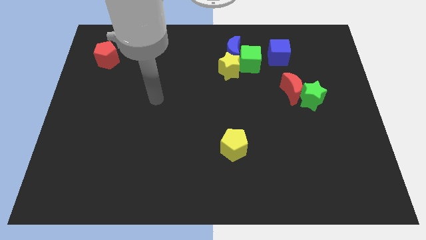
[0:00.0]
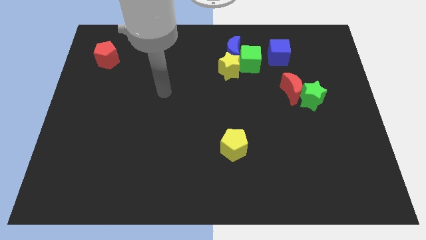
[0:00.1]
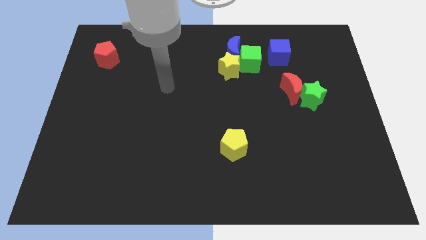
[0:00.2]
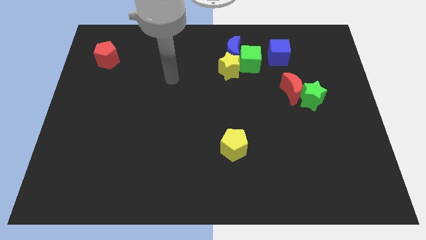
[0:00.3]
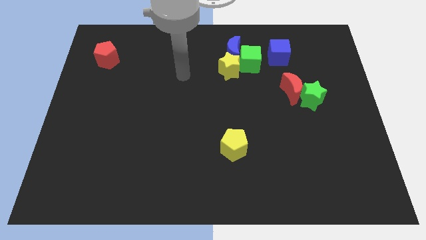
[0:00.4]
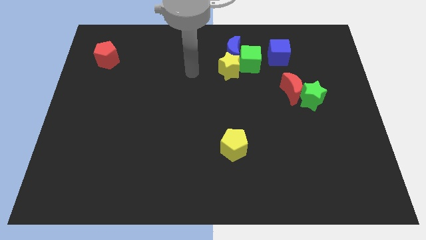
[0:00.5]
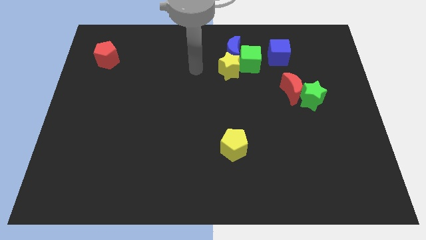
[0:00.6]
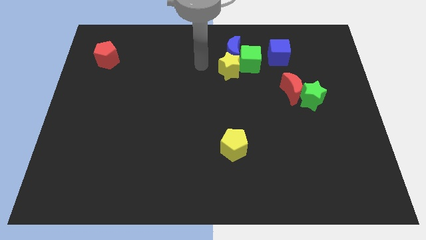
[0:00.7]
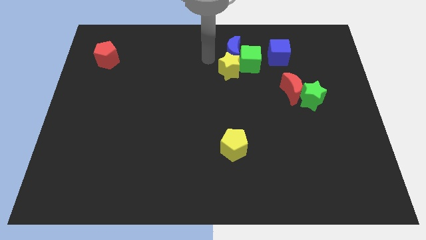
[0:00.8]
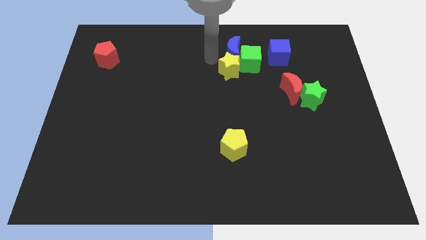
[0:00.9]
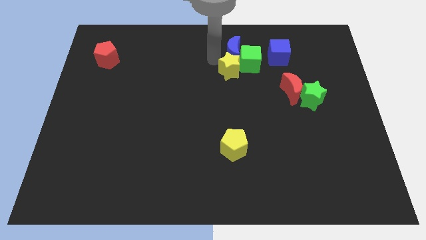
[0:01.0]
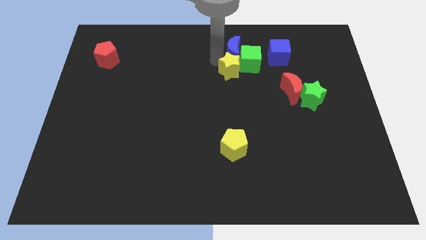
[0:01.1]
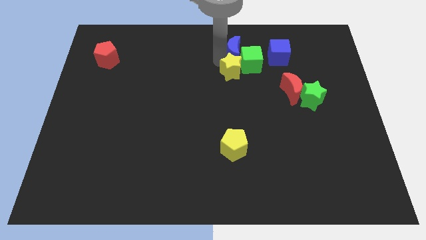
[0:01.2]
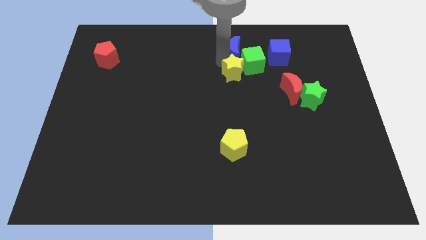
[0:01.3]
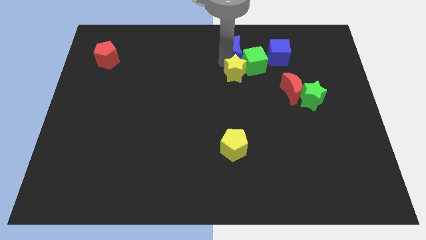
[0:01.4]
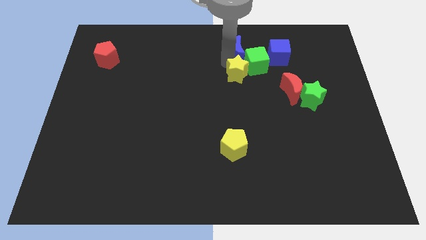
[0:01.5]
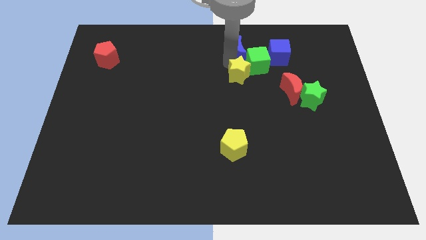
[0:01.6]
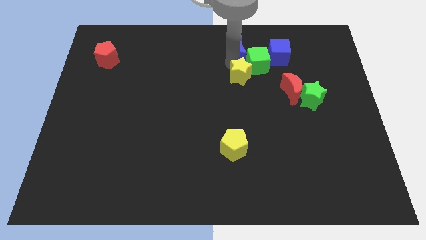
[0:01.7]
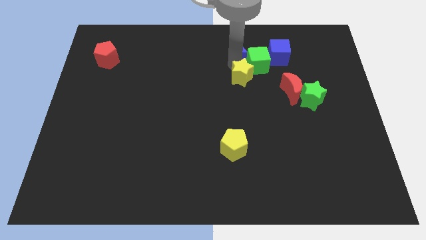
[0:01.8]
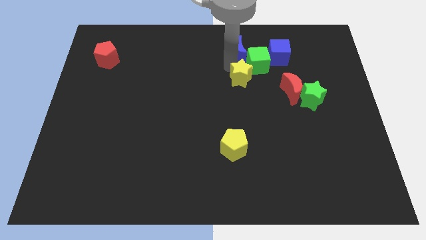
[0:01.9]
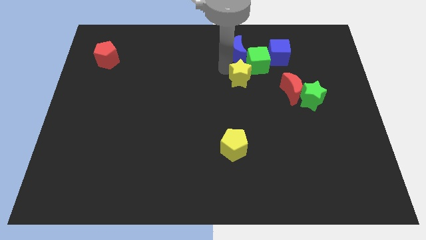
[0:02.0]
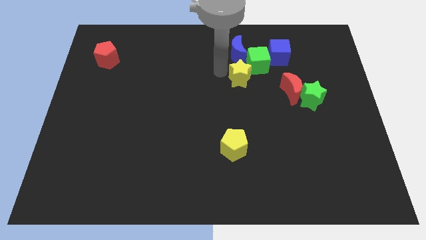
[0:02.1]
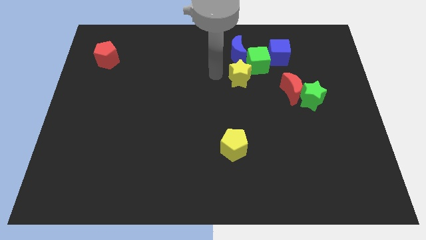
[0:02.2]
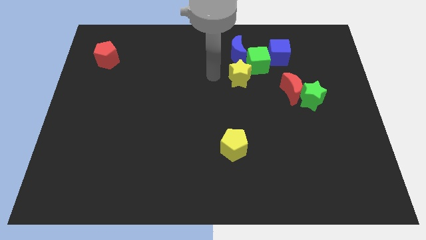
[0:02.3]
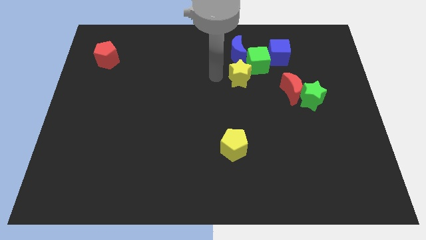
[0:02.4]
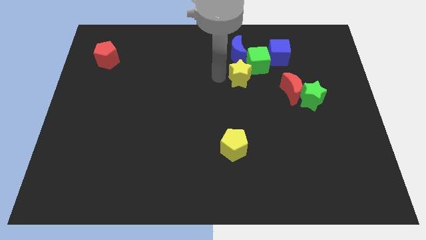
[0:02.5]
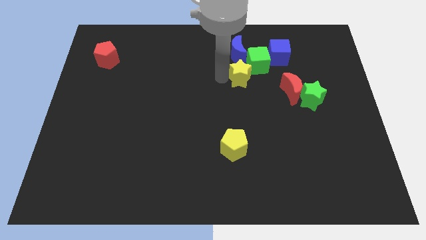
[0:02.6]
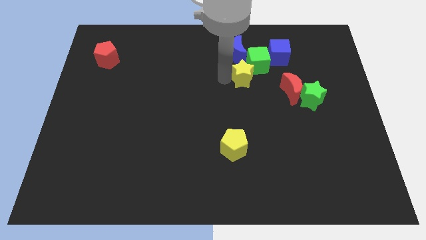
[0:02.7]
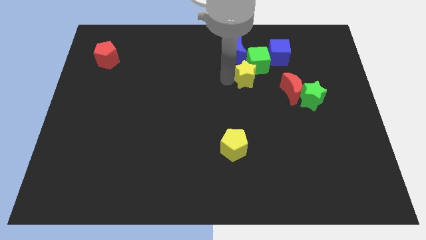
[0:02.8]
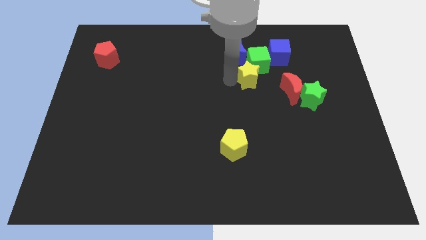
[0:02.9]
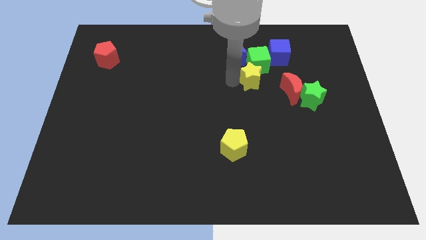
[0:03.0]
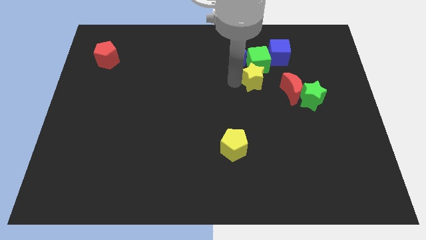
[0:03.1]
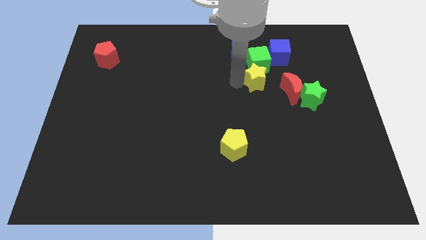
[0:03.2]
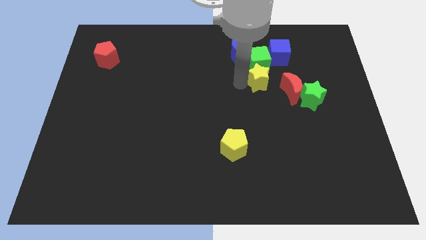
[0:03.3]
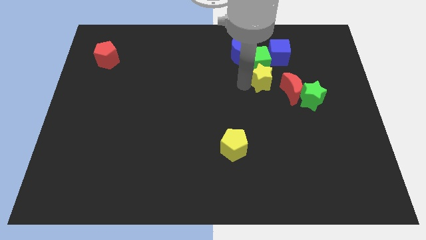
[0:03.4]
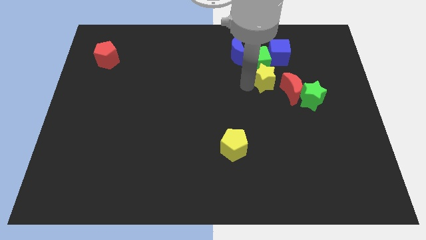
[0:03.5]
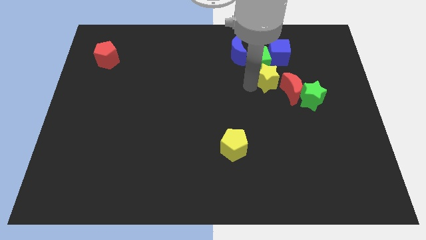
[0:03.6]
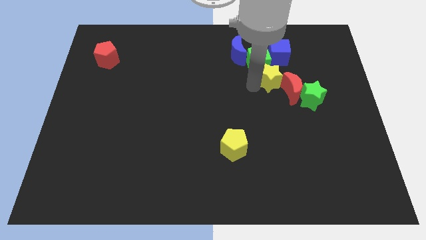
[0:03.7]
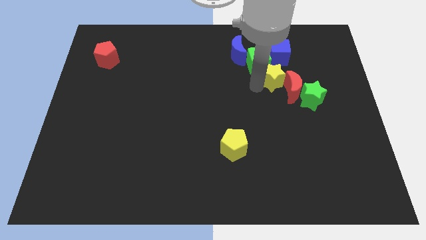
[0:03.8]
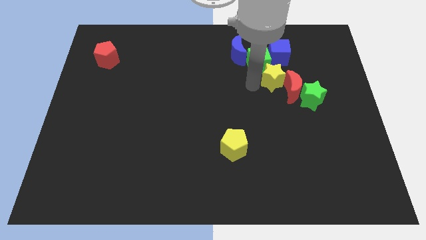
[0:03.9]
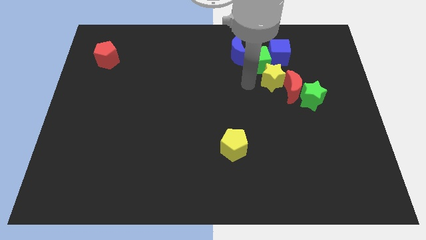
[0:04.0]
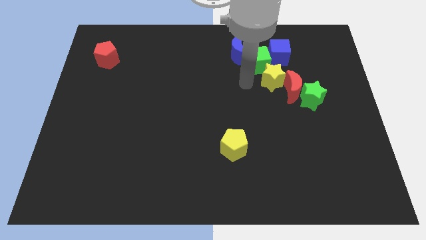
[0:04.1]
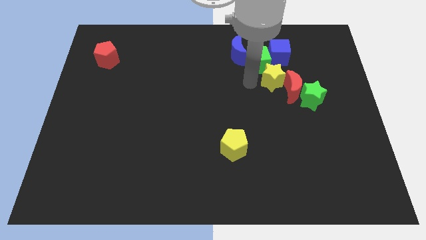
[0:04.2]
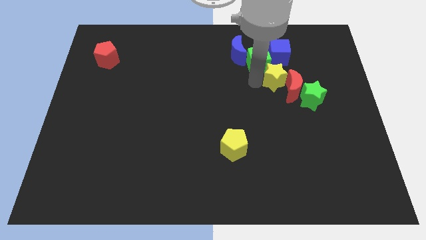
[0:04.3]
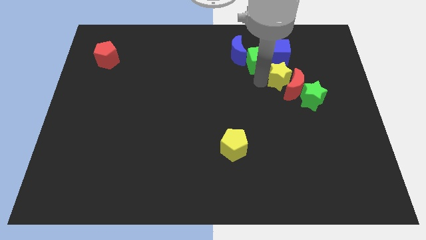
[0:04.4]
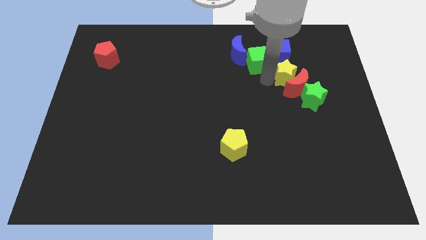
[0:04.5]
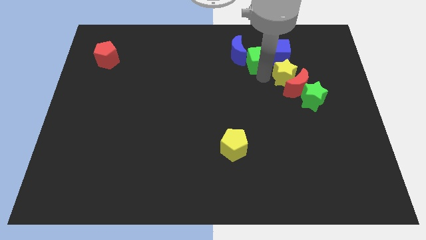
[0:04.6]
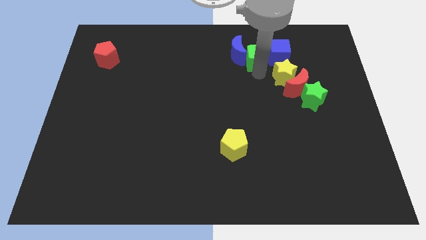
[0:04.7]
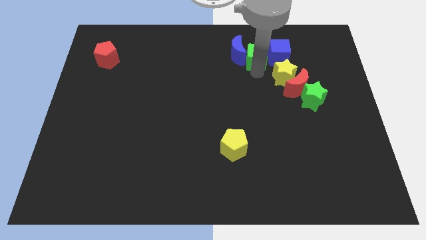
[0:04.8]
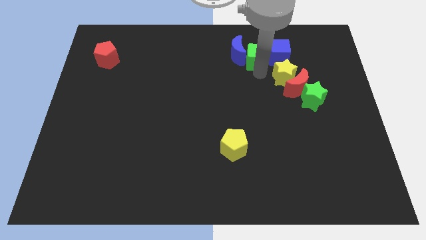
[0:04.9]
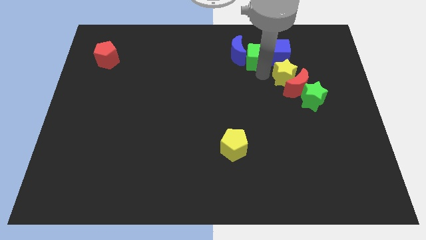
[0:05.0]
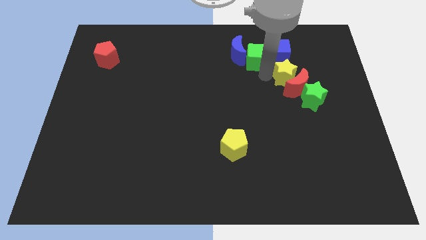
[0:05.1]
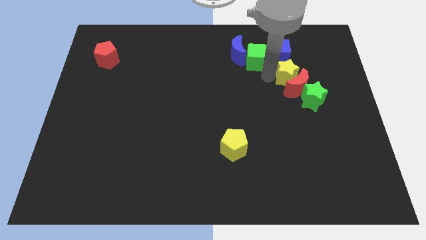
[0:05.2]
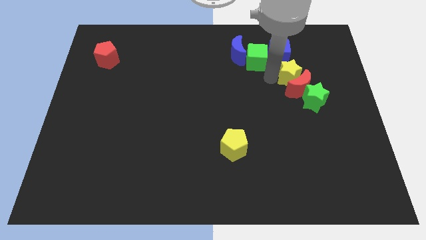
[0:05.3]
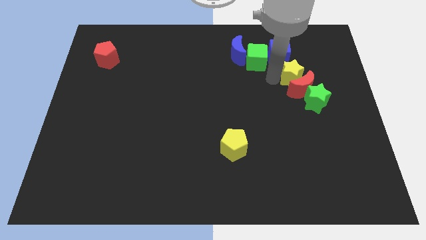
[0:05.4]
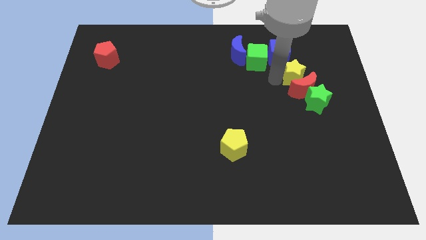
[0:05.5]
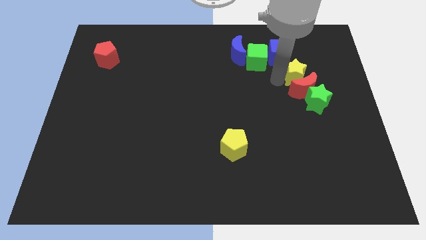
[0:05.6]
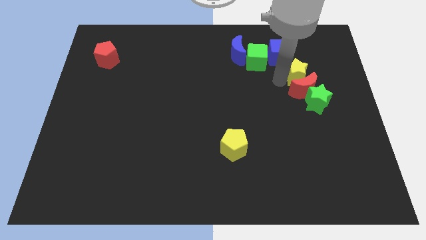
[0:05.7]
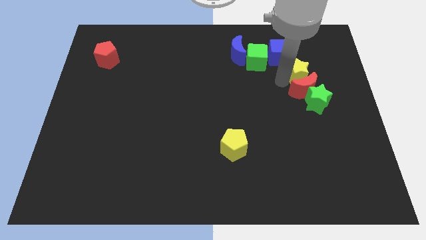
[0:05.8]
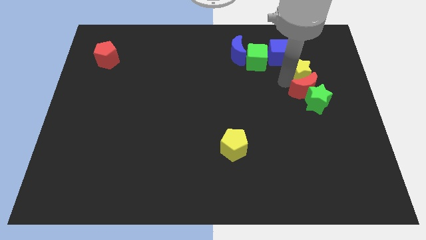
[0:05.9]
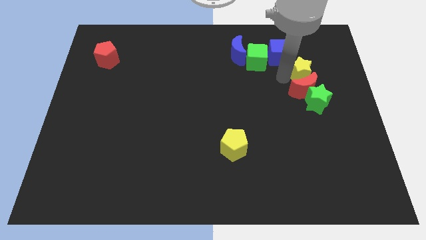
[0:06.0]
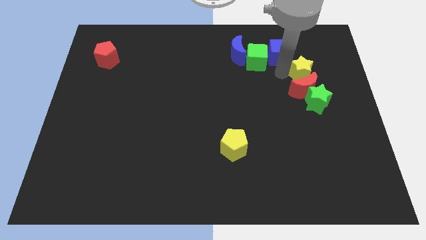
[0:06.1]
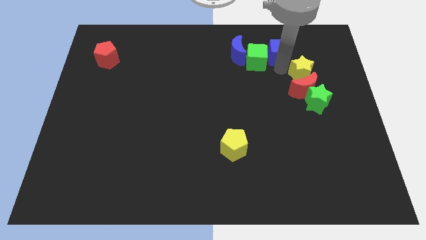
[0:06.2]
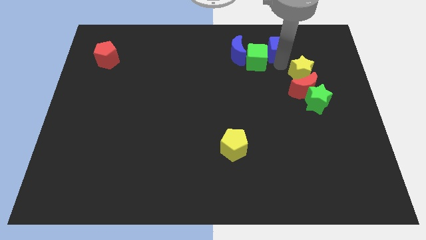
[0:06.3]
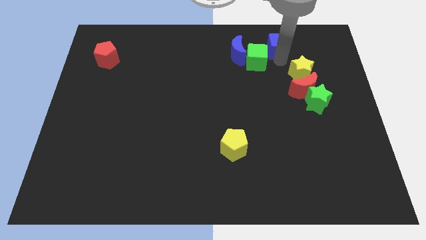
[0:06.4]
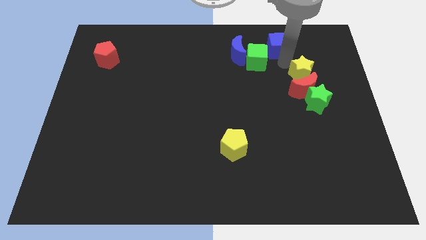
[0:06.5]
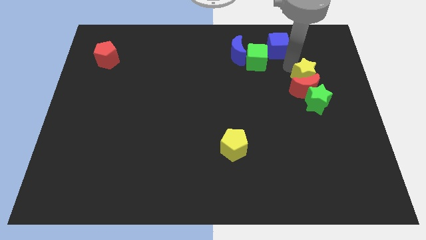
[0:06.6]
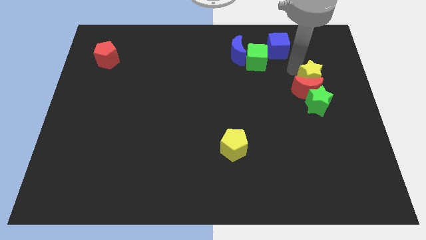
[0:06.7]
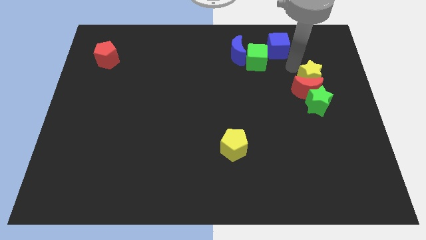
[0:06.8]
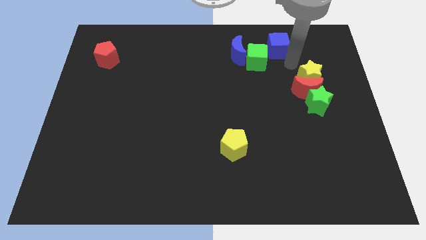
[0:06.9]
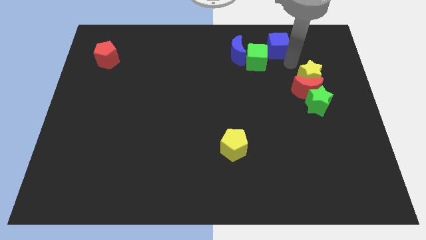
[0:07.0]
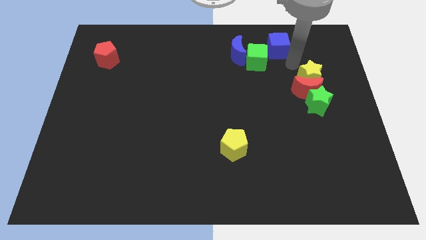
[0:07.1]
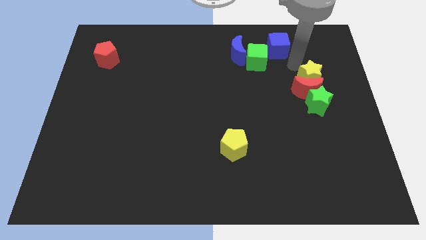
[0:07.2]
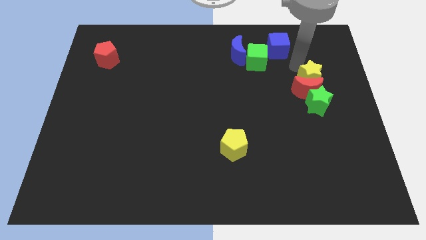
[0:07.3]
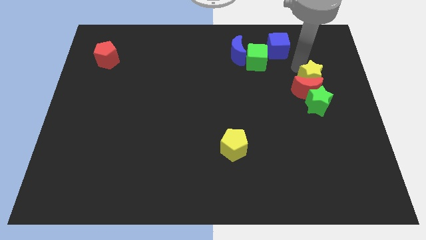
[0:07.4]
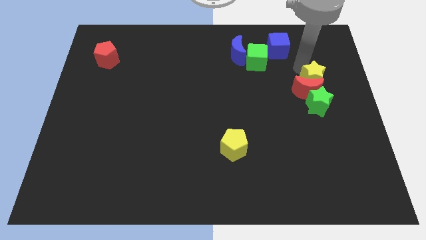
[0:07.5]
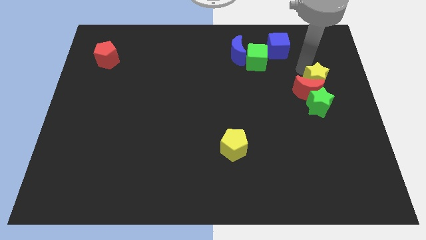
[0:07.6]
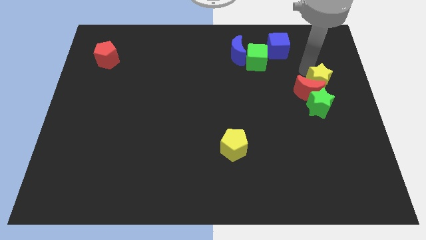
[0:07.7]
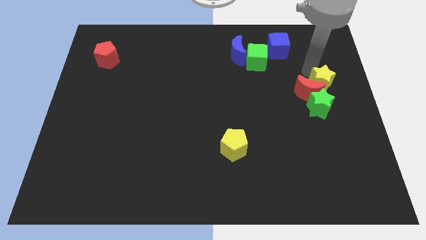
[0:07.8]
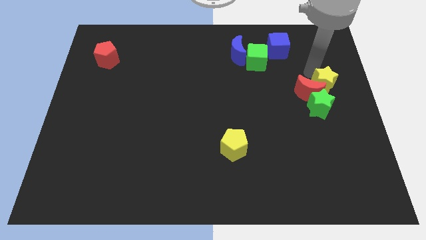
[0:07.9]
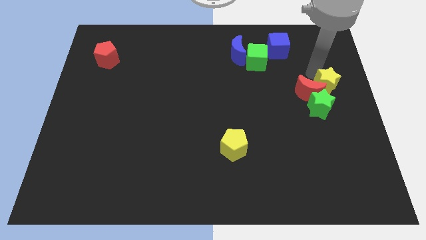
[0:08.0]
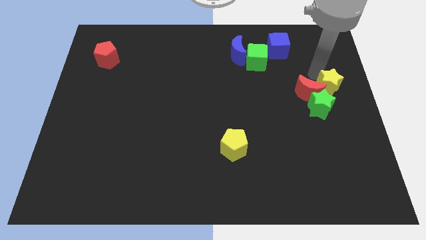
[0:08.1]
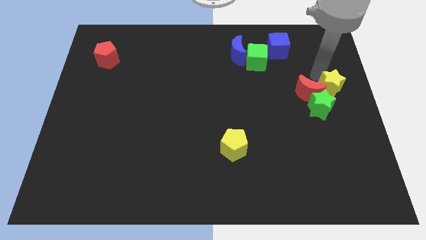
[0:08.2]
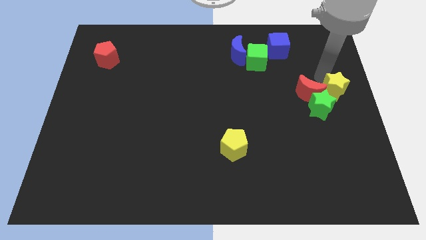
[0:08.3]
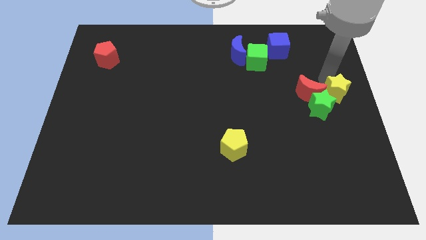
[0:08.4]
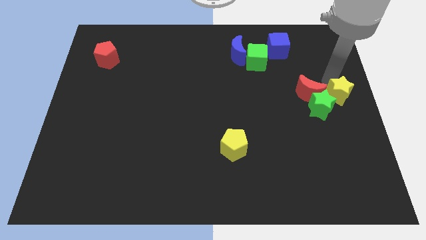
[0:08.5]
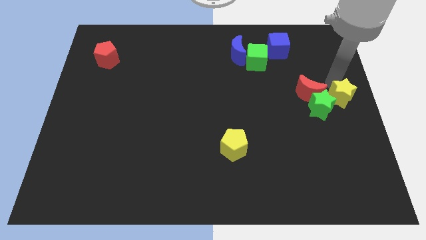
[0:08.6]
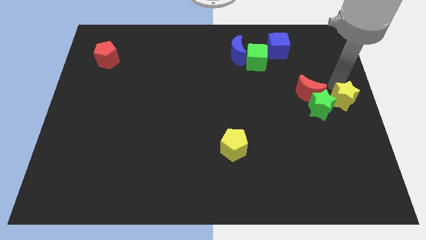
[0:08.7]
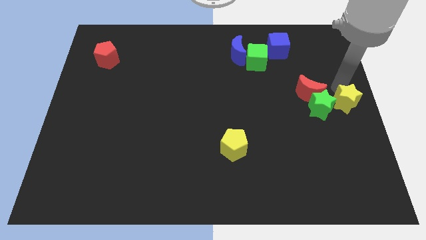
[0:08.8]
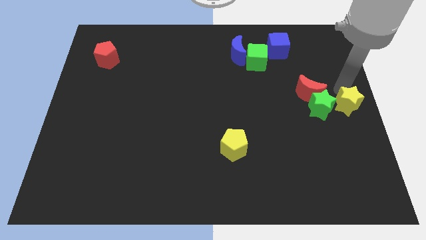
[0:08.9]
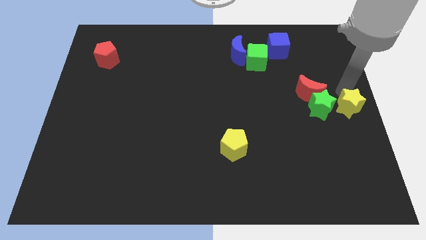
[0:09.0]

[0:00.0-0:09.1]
put the yellow star diagonally down and to the right of the green star
